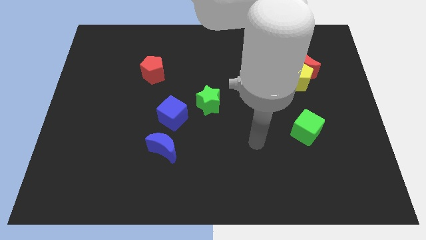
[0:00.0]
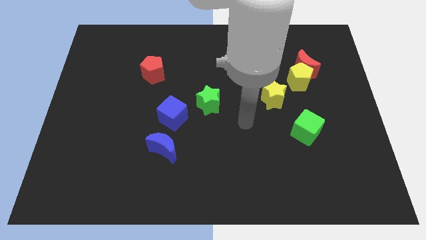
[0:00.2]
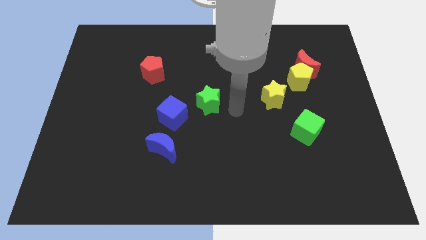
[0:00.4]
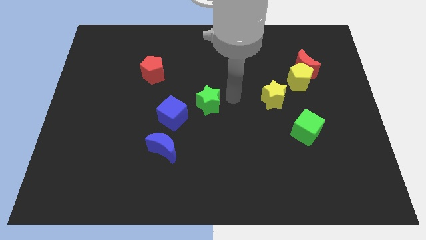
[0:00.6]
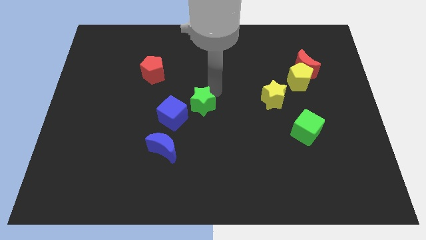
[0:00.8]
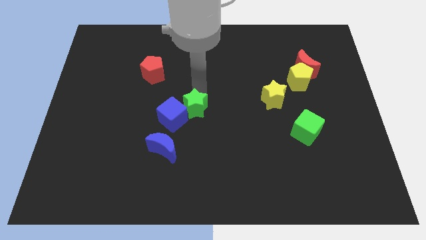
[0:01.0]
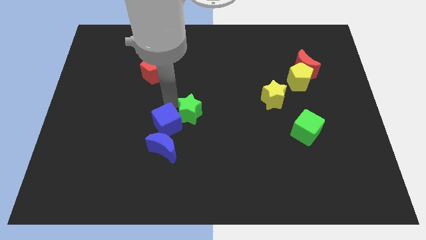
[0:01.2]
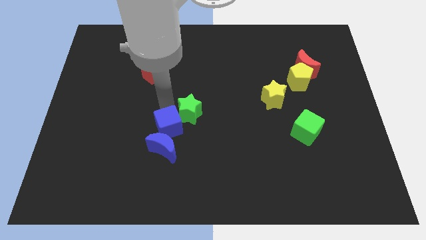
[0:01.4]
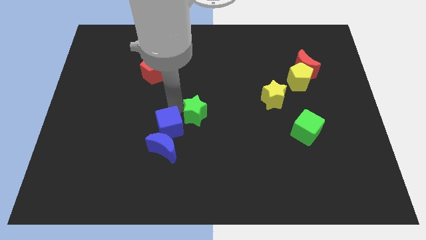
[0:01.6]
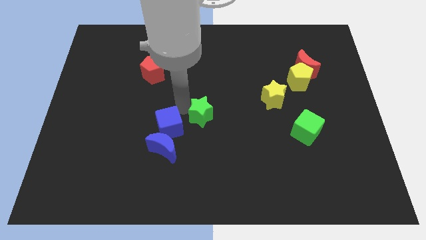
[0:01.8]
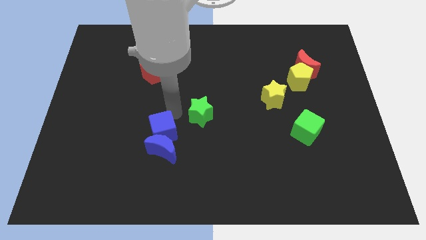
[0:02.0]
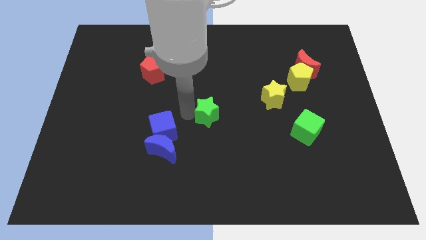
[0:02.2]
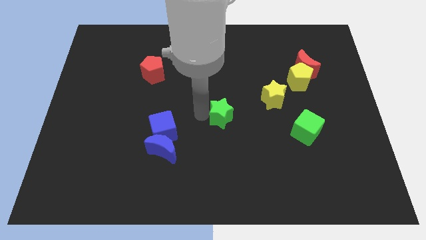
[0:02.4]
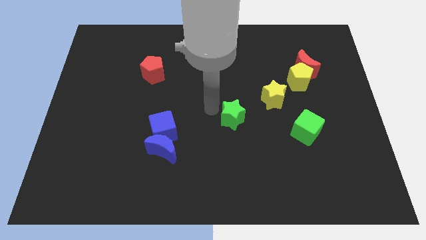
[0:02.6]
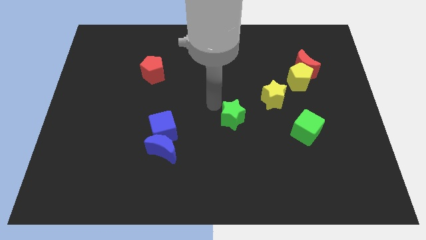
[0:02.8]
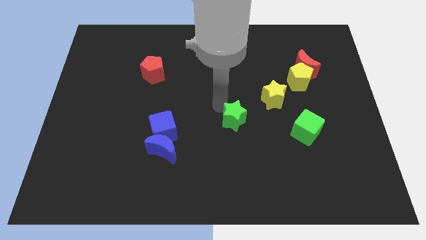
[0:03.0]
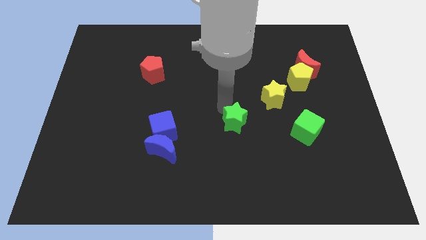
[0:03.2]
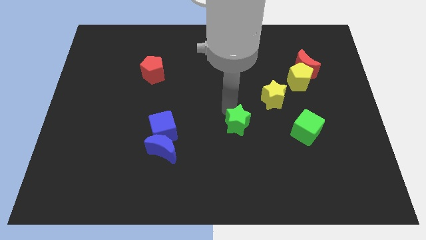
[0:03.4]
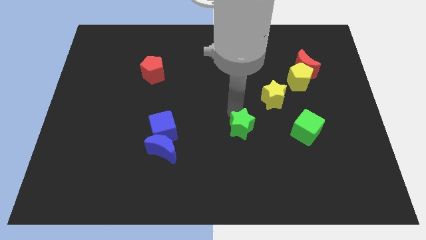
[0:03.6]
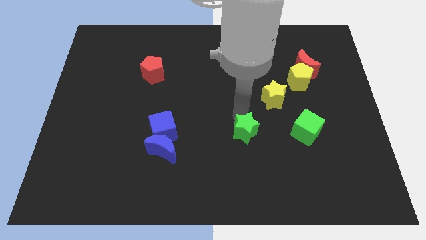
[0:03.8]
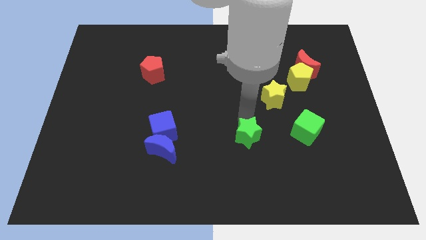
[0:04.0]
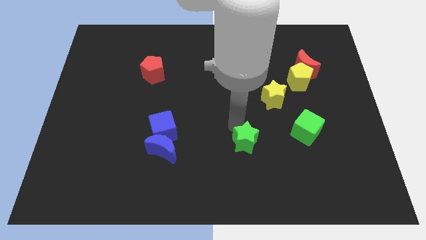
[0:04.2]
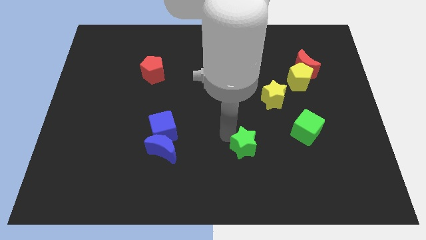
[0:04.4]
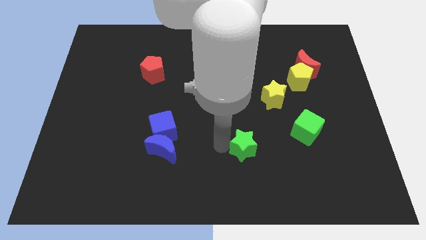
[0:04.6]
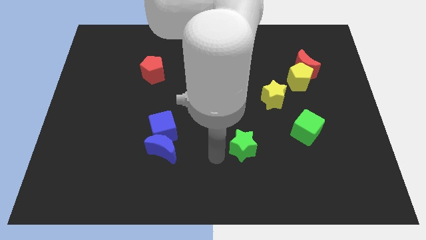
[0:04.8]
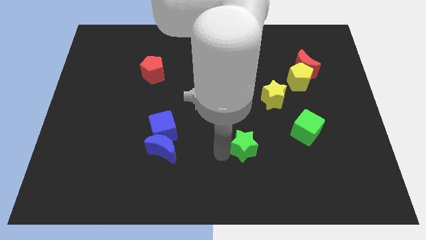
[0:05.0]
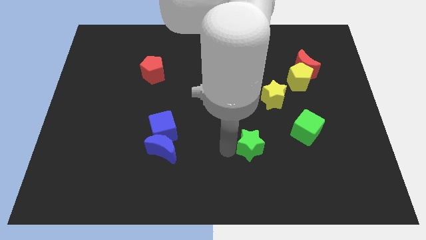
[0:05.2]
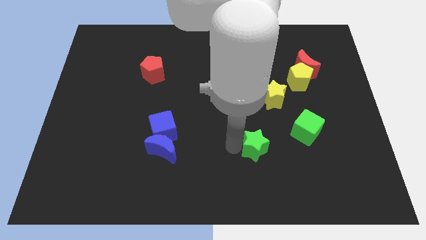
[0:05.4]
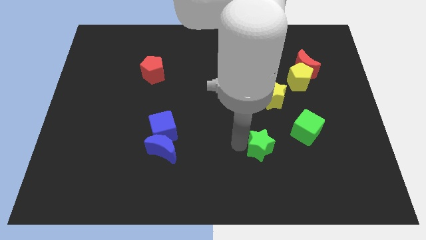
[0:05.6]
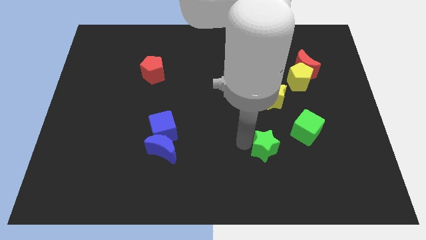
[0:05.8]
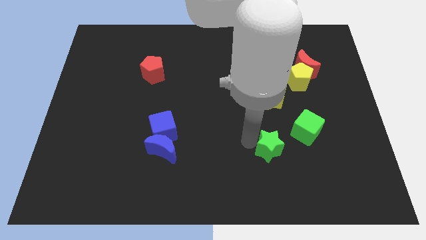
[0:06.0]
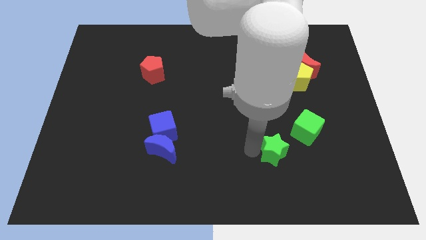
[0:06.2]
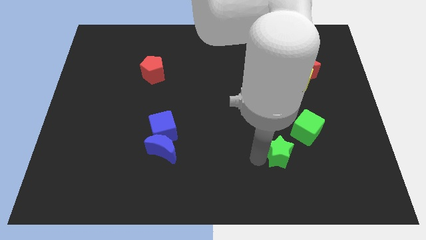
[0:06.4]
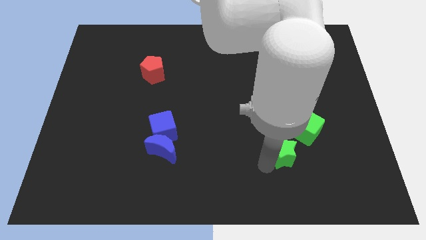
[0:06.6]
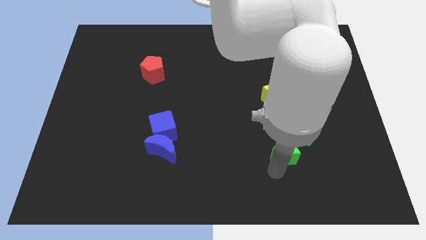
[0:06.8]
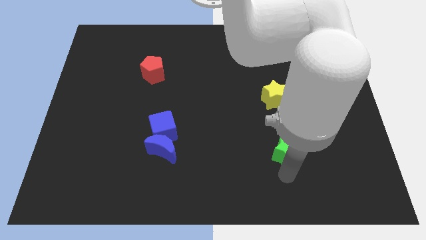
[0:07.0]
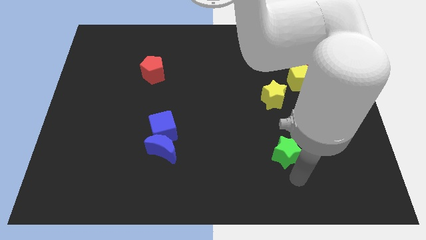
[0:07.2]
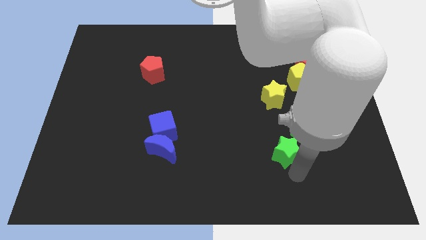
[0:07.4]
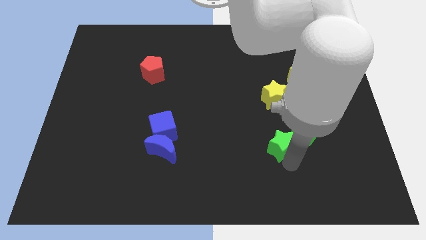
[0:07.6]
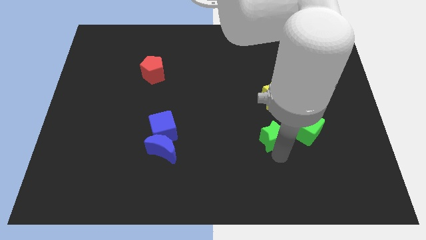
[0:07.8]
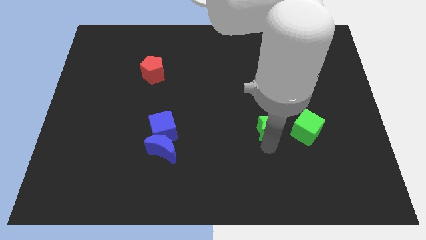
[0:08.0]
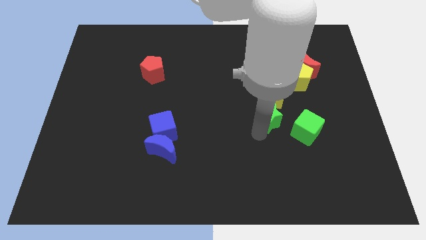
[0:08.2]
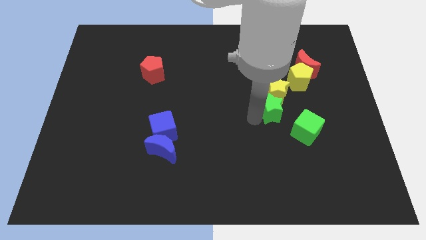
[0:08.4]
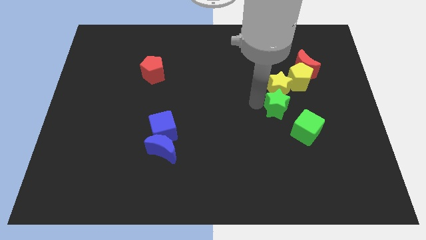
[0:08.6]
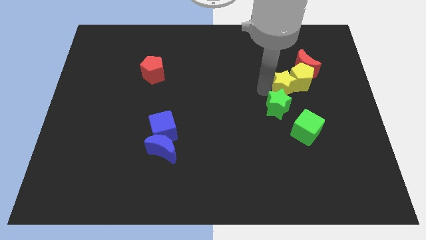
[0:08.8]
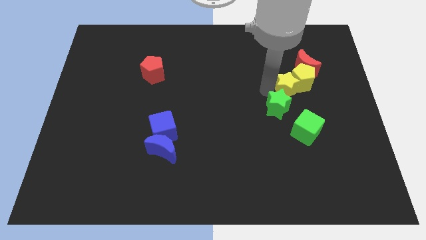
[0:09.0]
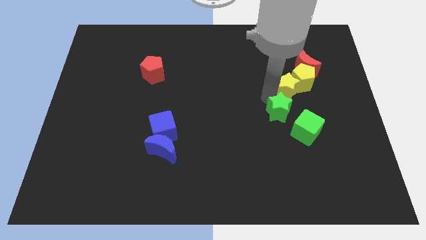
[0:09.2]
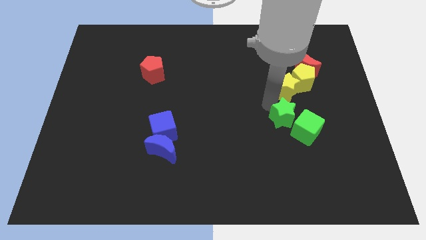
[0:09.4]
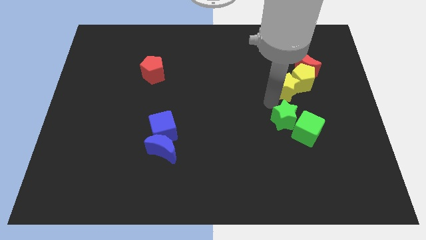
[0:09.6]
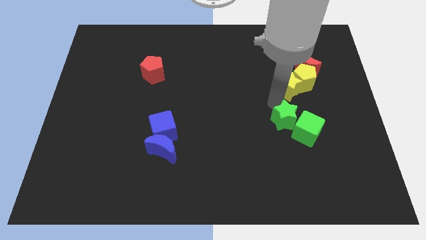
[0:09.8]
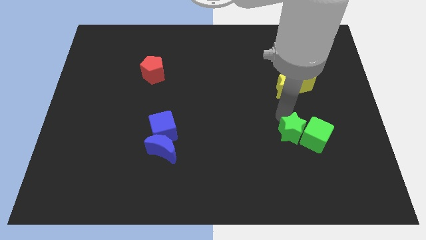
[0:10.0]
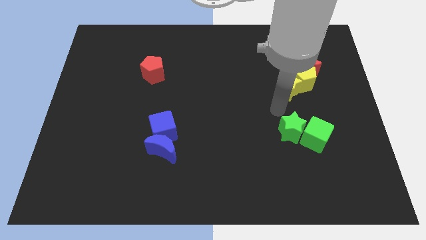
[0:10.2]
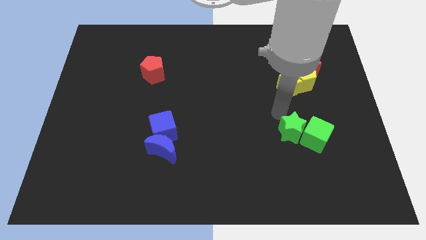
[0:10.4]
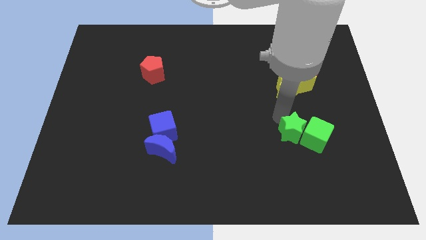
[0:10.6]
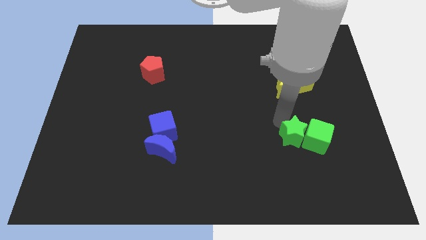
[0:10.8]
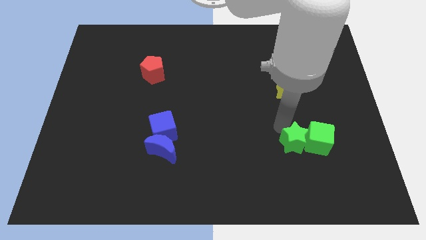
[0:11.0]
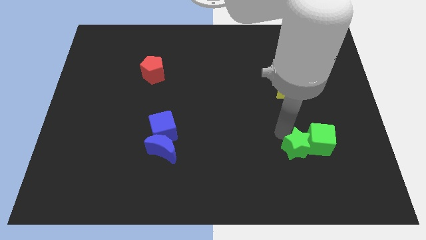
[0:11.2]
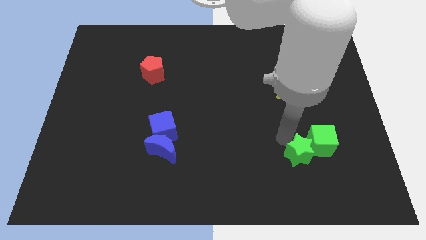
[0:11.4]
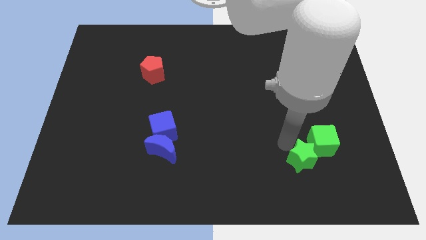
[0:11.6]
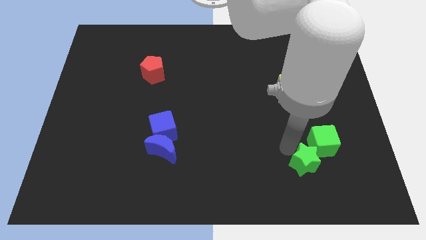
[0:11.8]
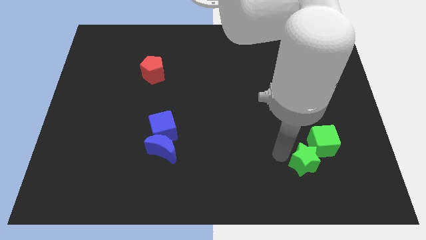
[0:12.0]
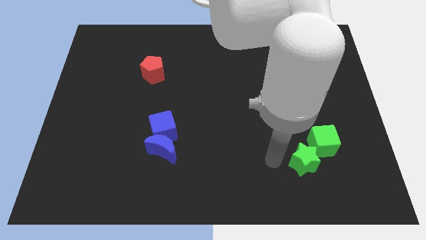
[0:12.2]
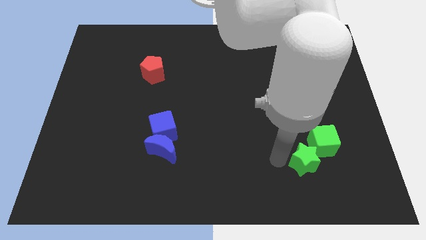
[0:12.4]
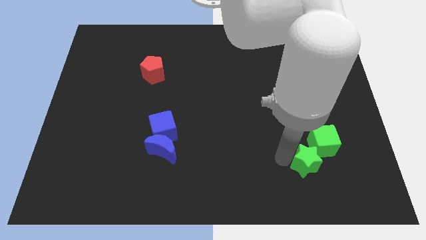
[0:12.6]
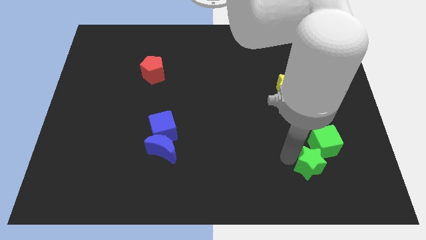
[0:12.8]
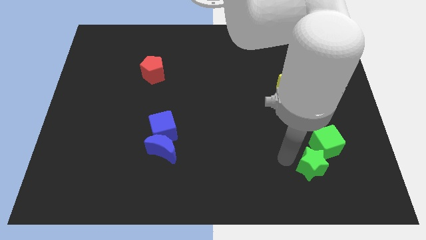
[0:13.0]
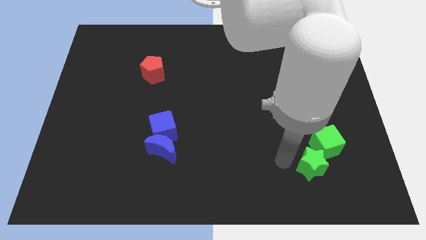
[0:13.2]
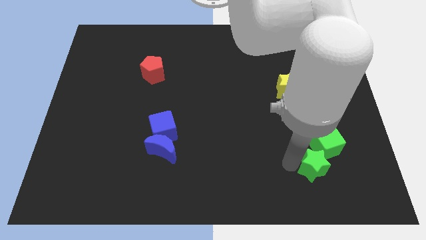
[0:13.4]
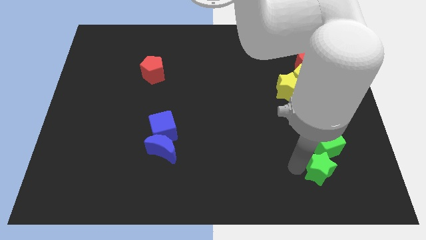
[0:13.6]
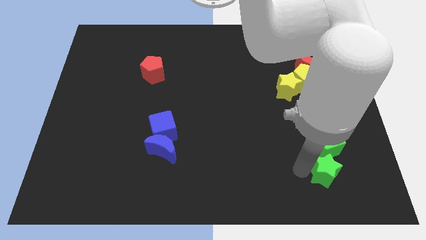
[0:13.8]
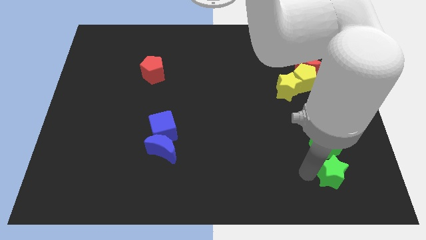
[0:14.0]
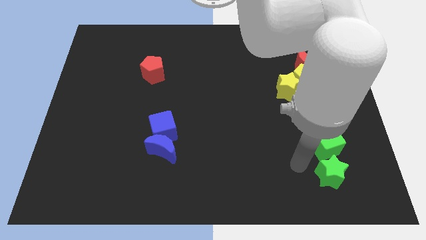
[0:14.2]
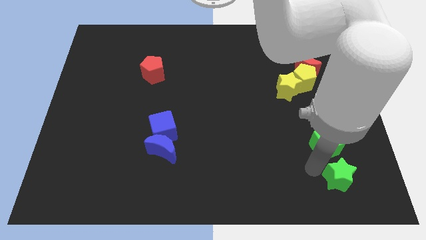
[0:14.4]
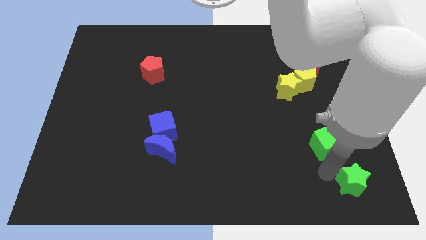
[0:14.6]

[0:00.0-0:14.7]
push the green star to the bottom right of the board
